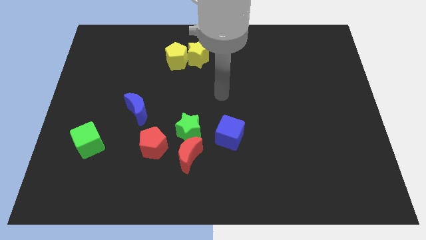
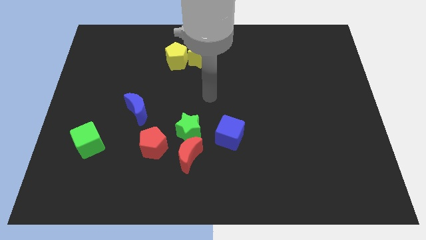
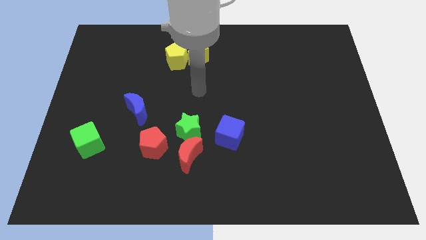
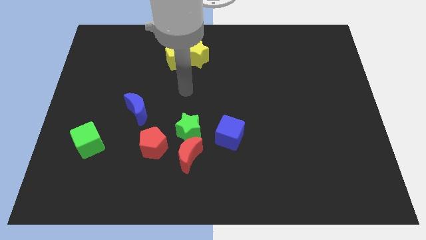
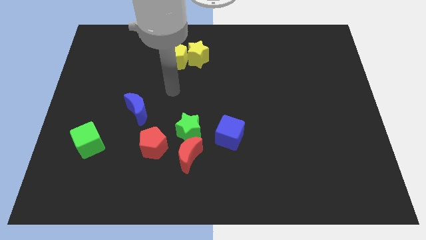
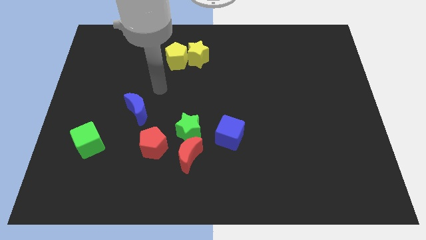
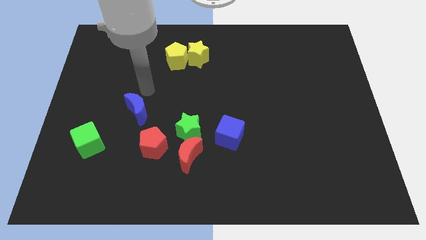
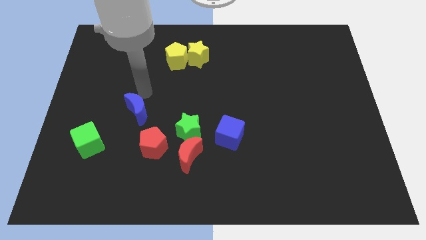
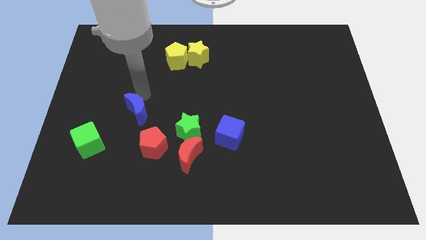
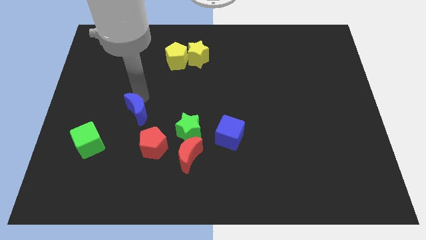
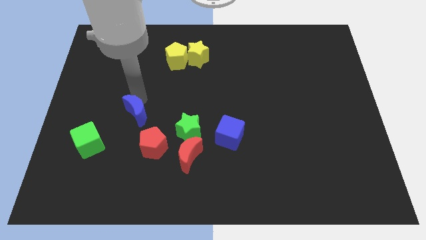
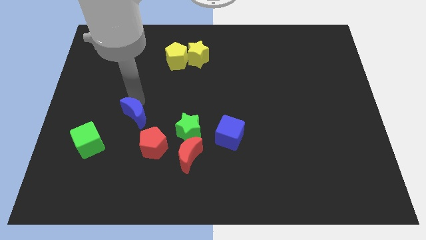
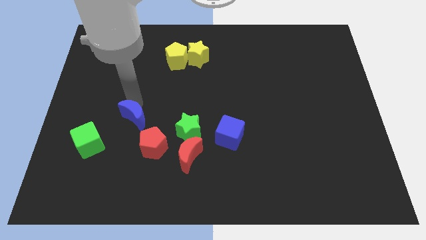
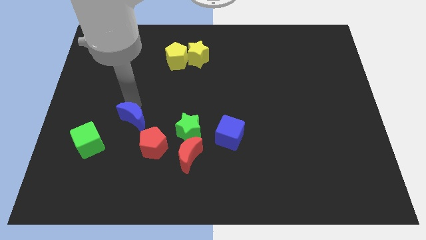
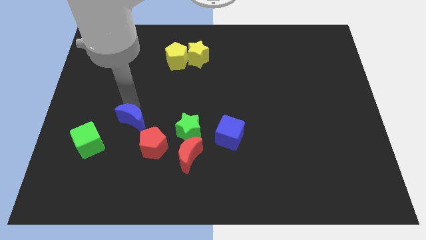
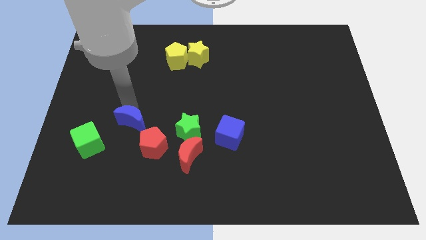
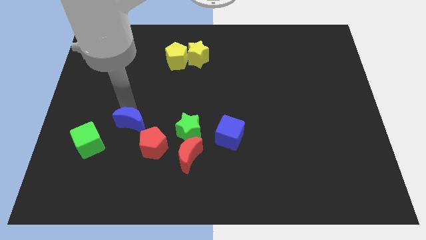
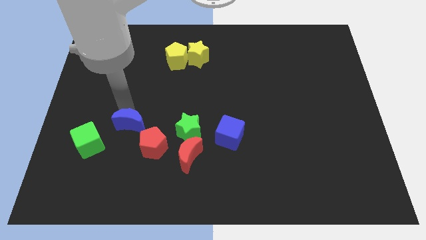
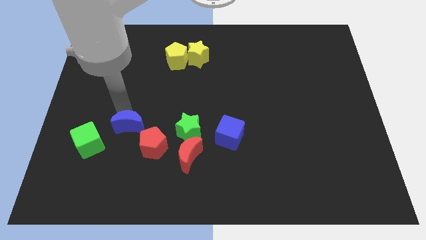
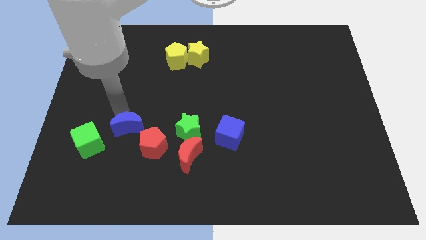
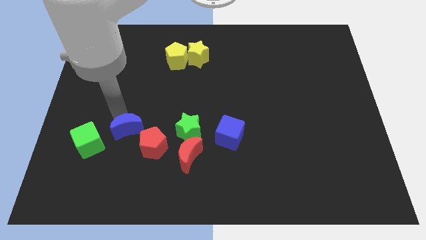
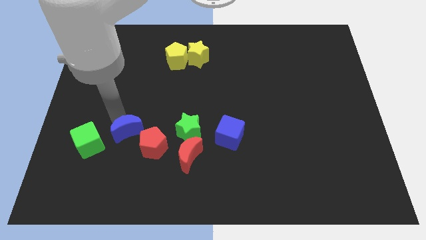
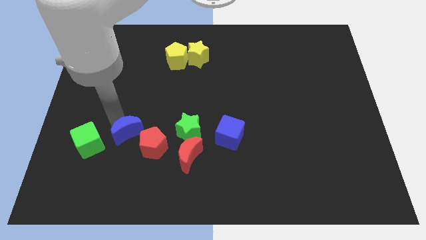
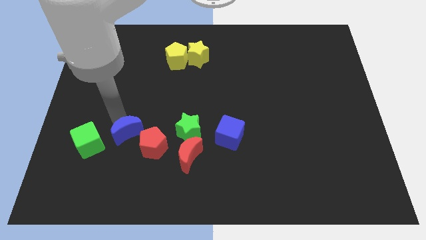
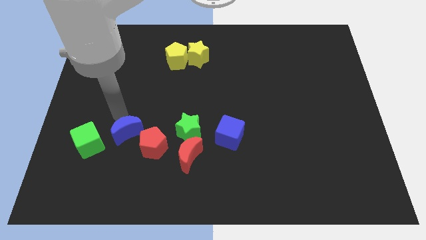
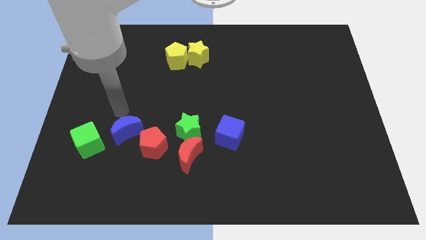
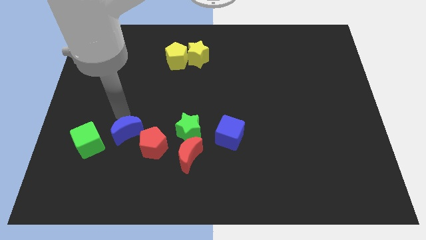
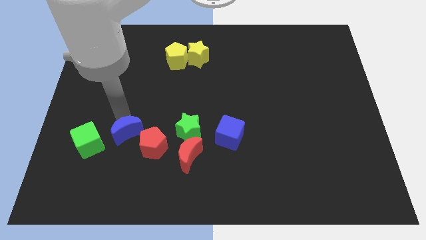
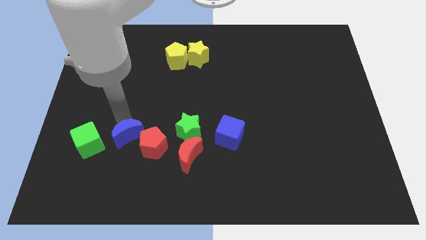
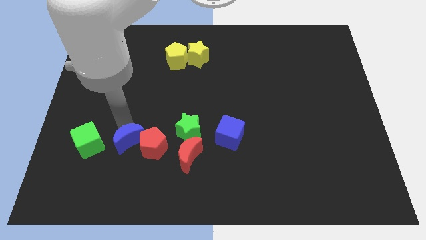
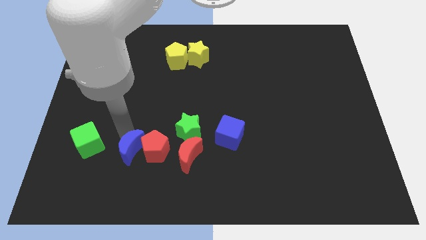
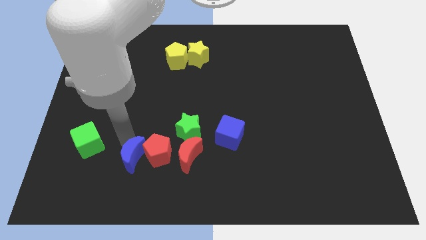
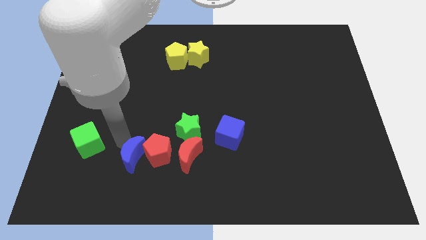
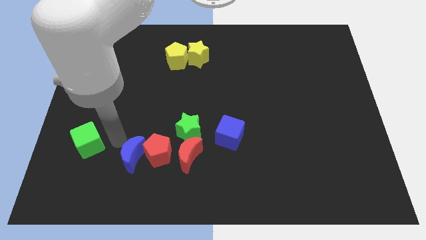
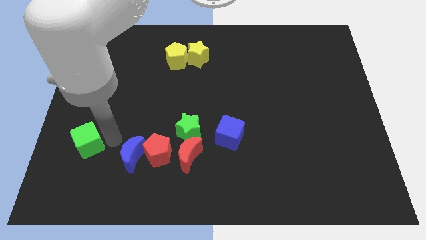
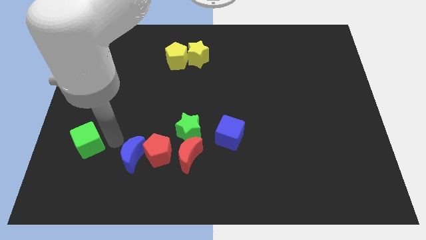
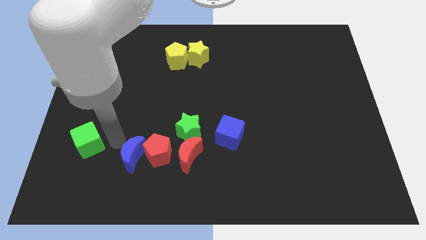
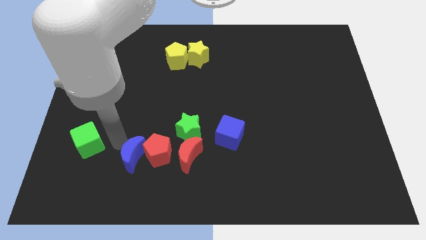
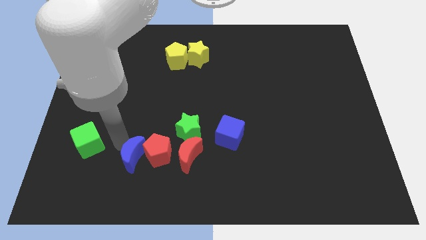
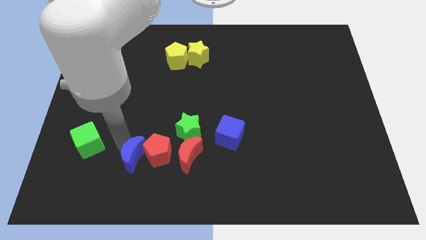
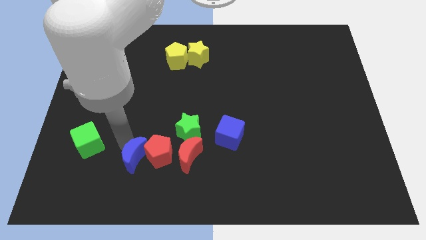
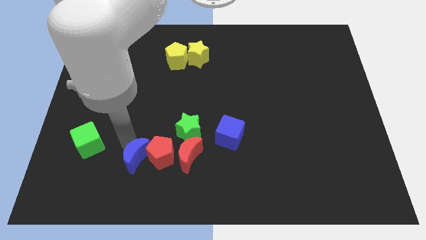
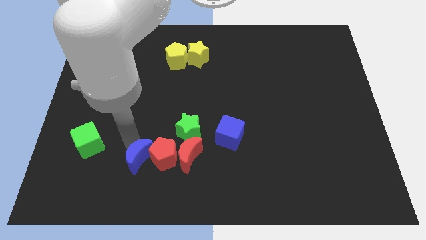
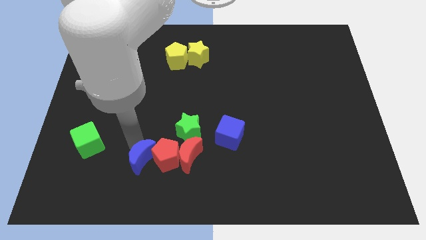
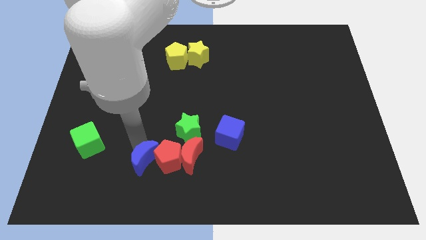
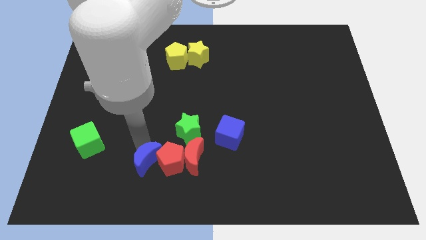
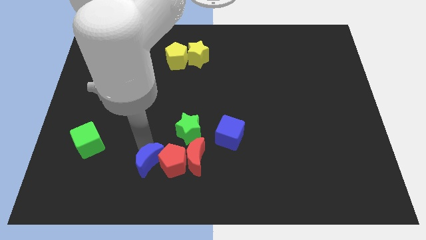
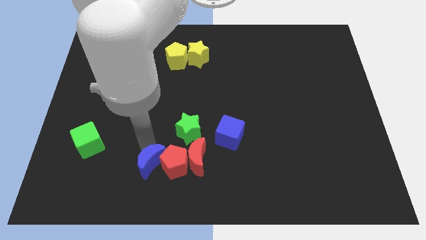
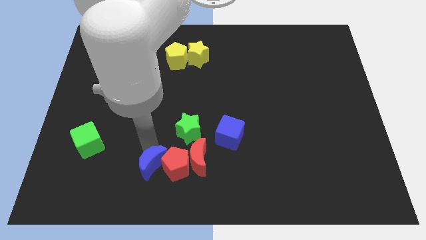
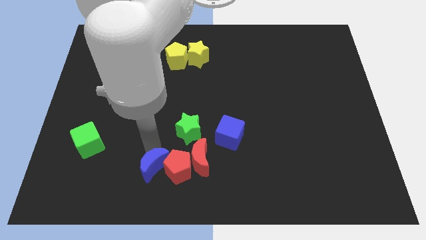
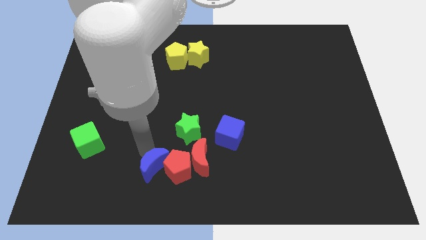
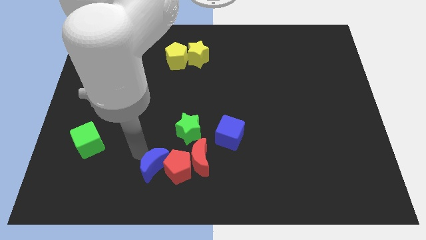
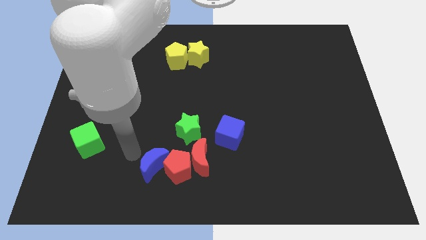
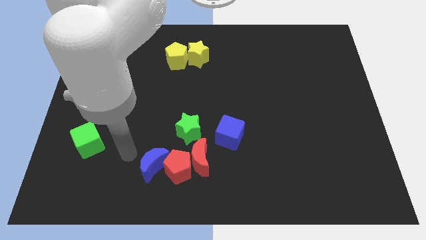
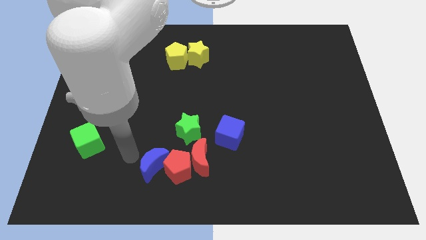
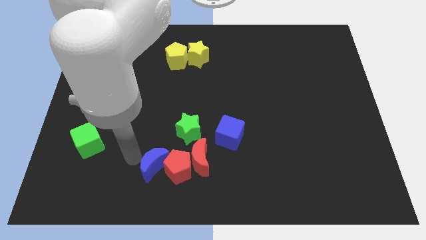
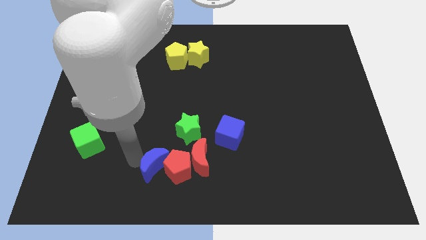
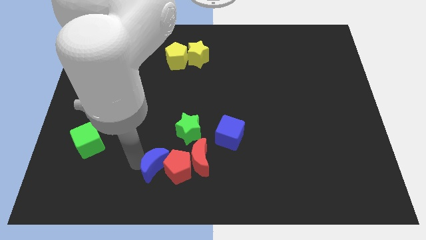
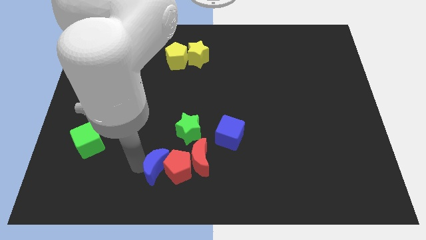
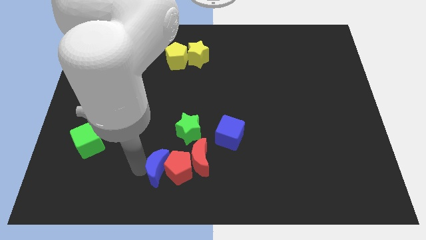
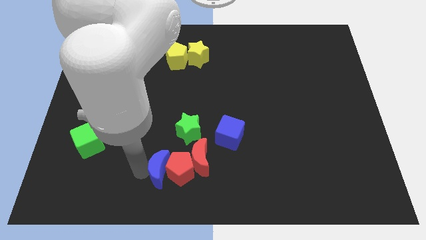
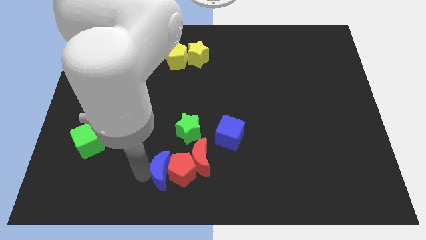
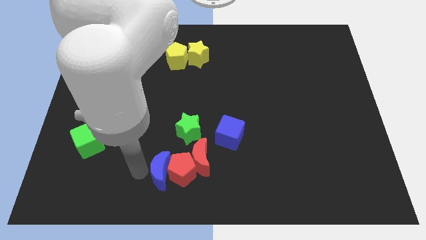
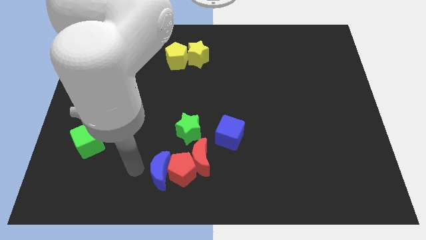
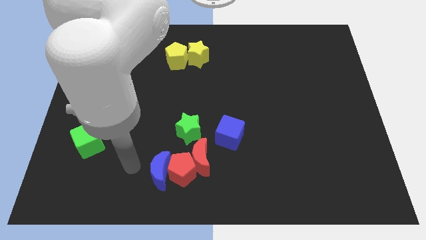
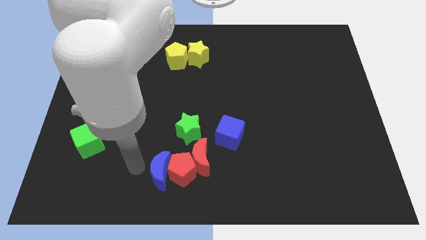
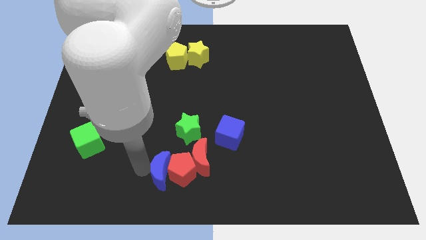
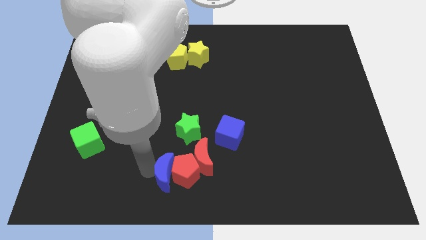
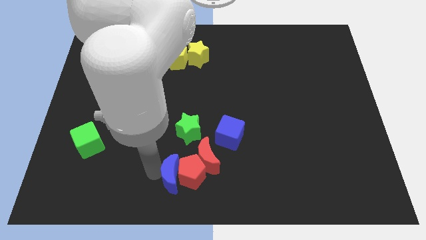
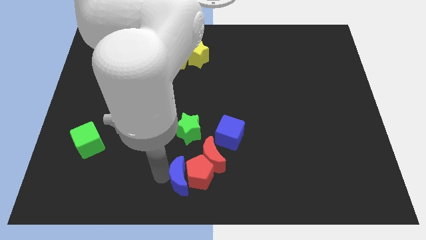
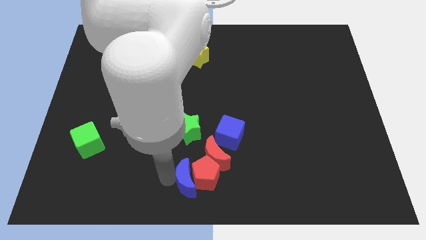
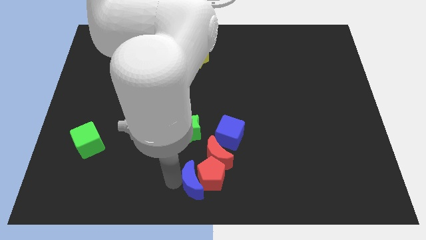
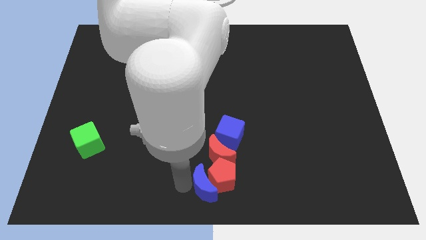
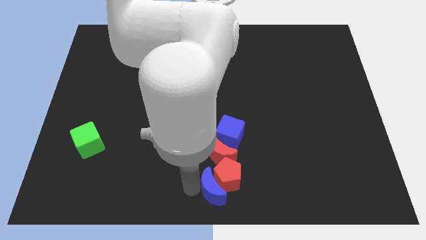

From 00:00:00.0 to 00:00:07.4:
push the blue moon to the bottom of the blue cube
